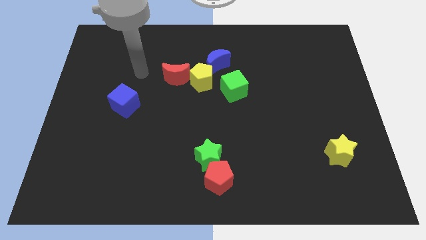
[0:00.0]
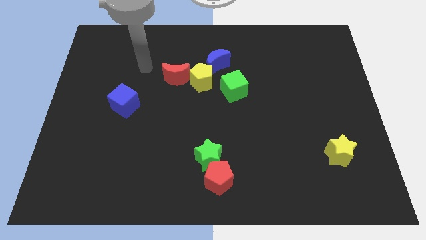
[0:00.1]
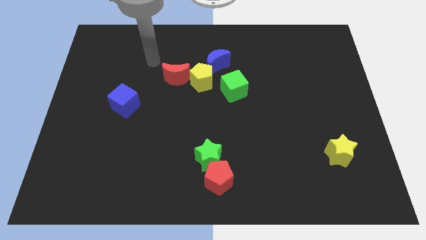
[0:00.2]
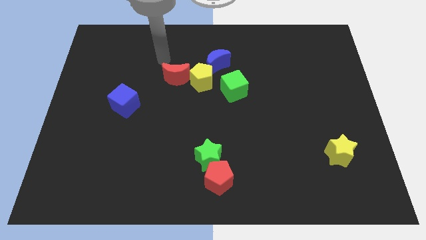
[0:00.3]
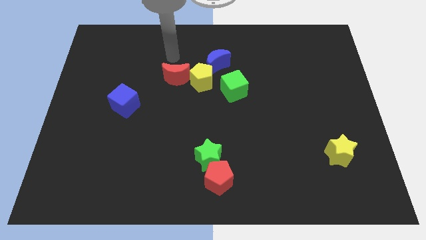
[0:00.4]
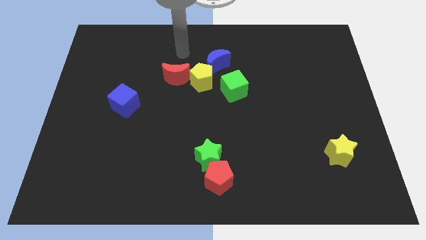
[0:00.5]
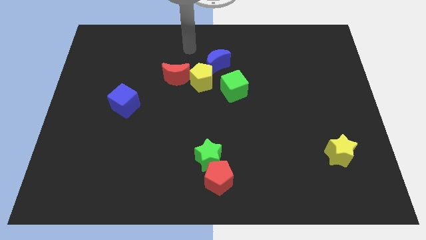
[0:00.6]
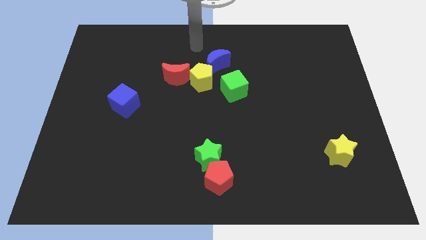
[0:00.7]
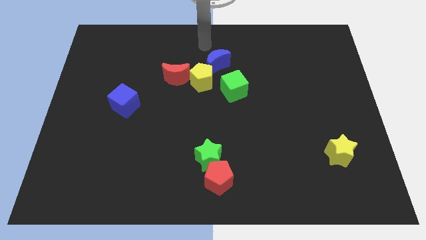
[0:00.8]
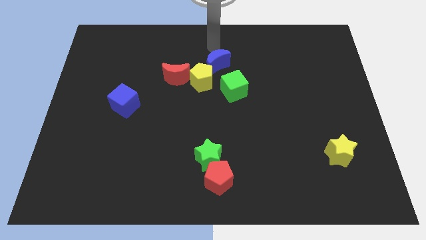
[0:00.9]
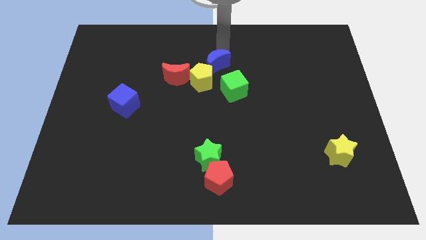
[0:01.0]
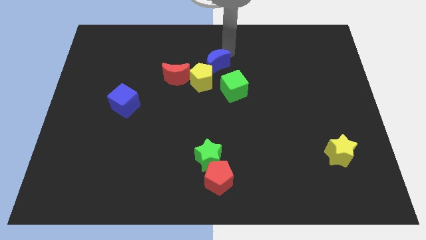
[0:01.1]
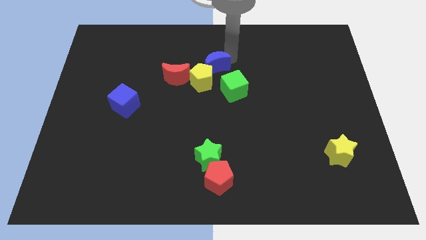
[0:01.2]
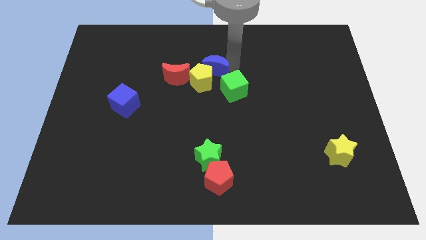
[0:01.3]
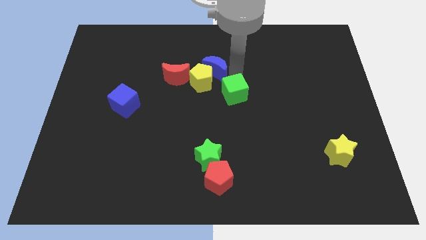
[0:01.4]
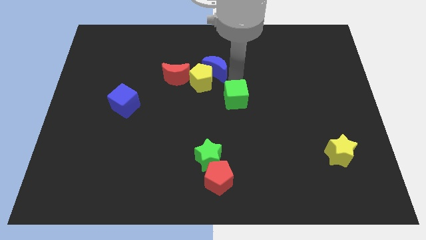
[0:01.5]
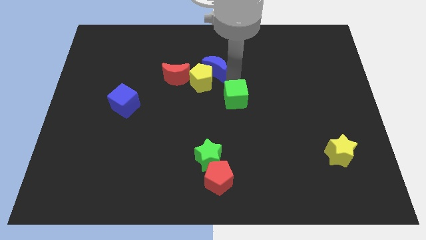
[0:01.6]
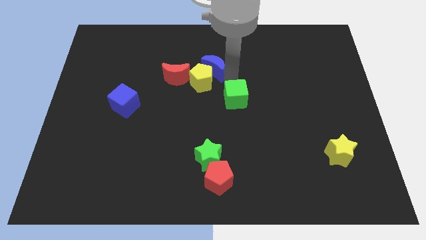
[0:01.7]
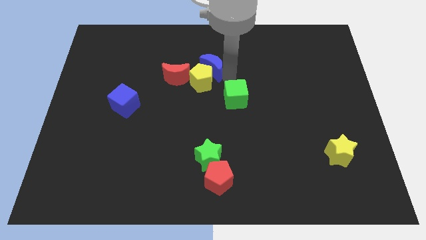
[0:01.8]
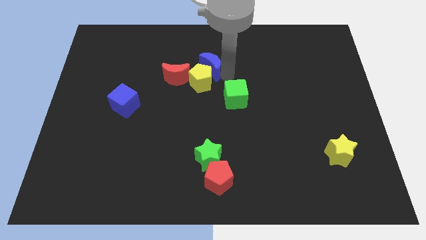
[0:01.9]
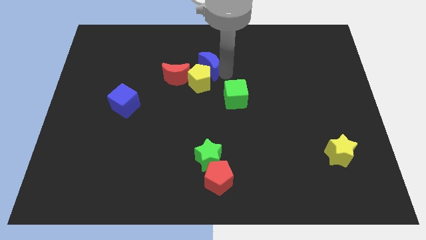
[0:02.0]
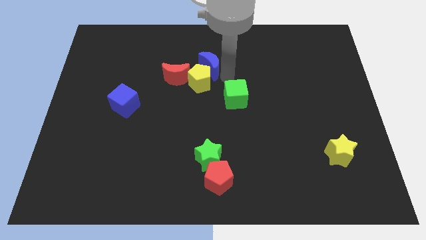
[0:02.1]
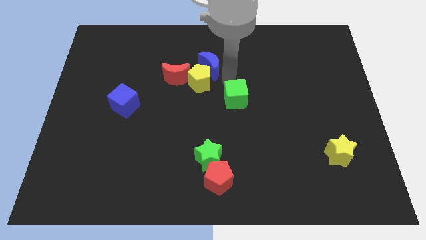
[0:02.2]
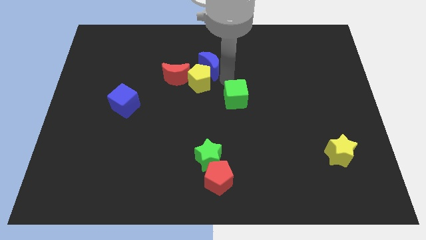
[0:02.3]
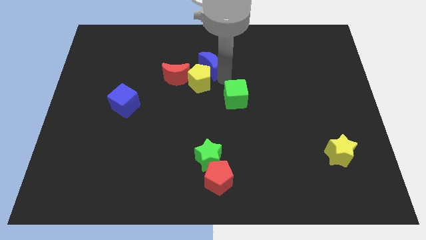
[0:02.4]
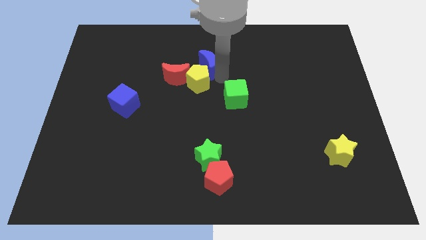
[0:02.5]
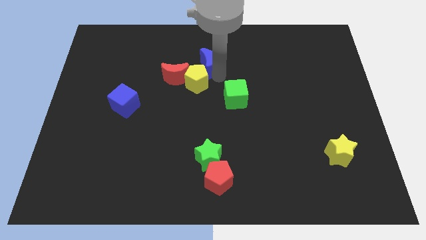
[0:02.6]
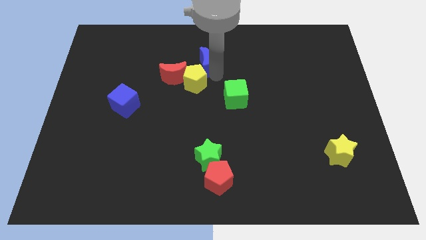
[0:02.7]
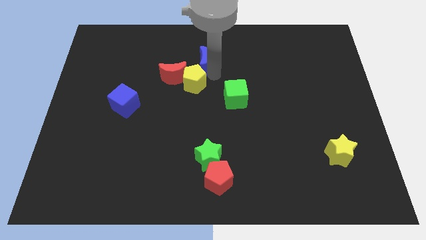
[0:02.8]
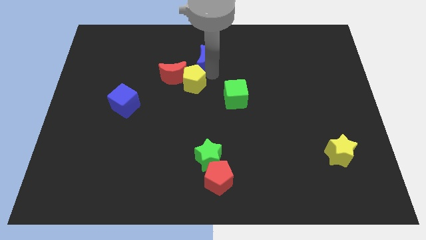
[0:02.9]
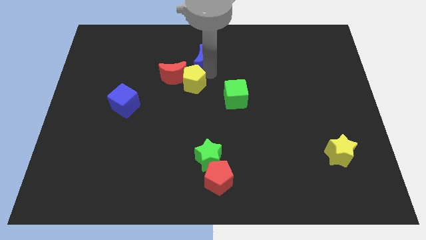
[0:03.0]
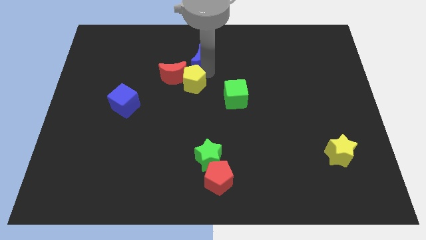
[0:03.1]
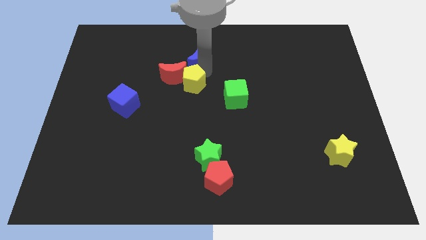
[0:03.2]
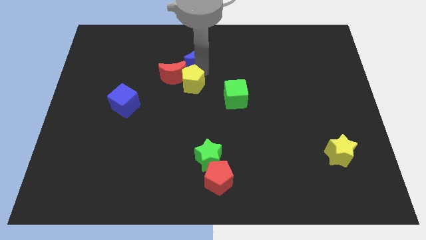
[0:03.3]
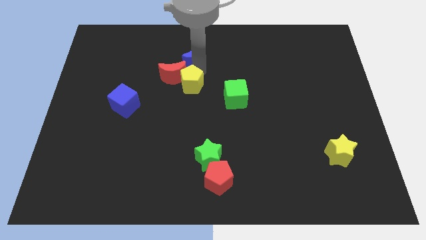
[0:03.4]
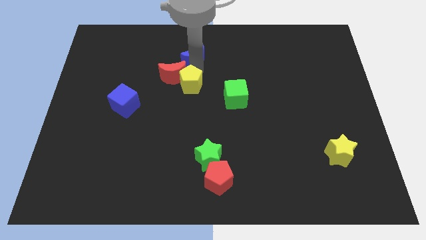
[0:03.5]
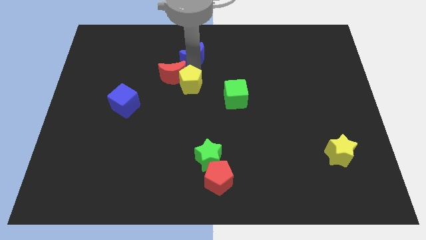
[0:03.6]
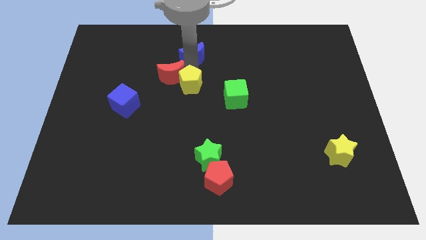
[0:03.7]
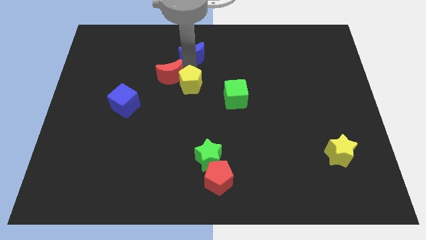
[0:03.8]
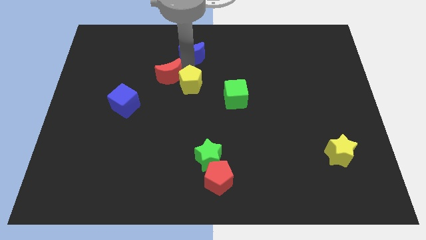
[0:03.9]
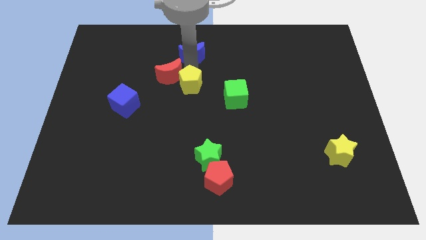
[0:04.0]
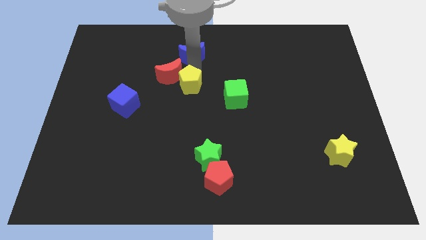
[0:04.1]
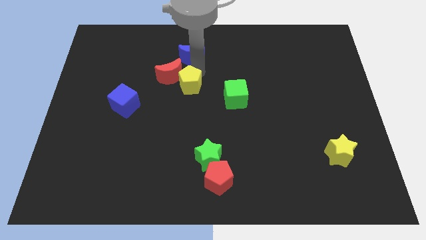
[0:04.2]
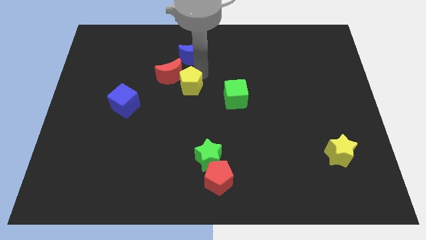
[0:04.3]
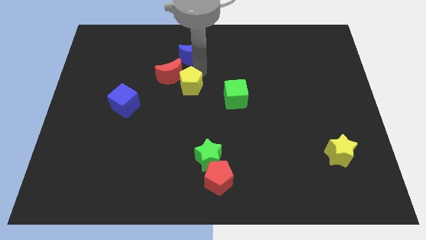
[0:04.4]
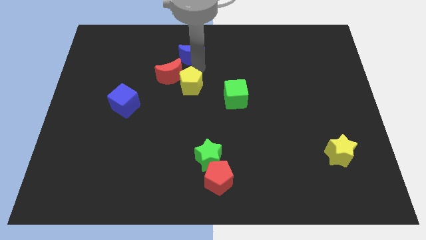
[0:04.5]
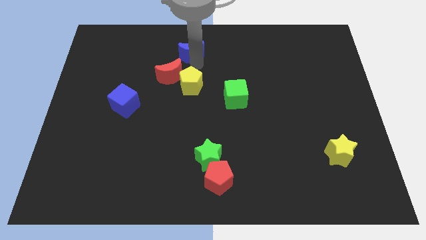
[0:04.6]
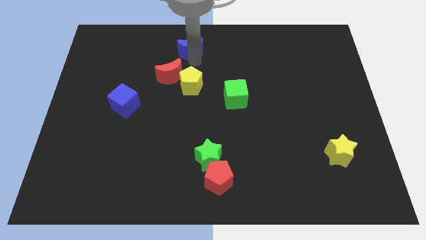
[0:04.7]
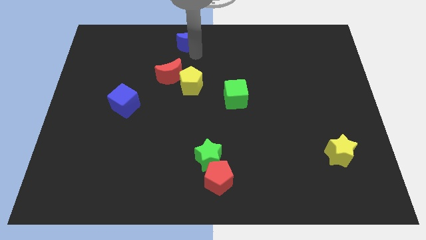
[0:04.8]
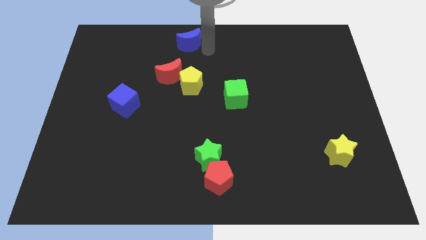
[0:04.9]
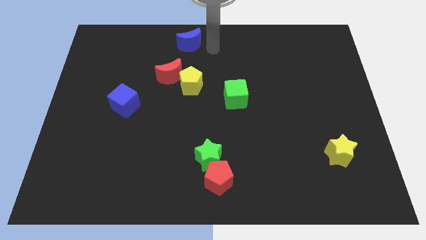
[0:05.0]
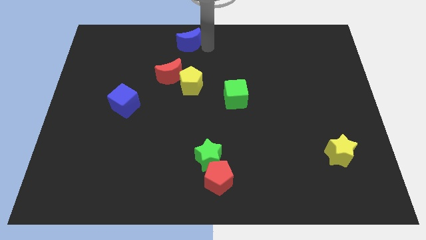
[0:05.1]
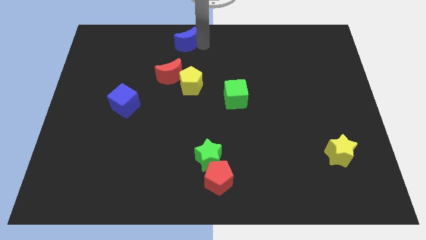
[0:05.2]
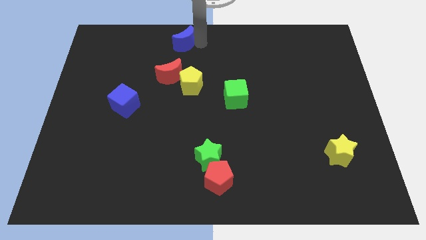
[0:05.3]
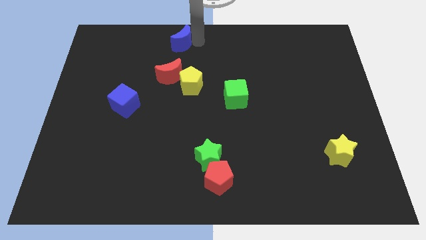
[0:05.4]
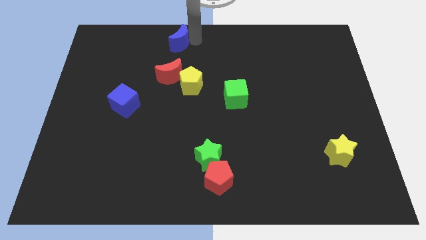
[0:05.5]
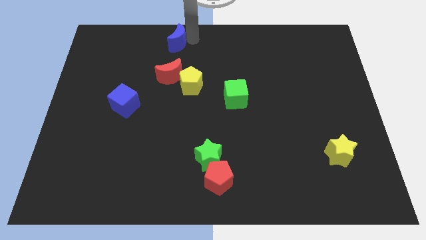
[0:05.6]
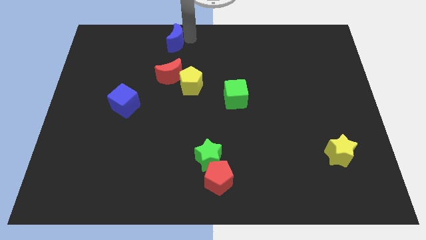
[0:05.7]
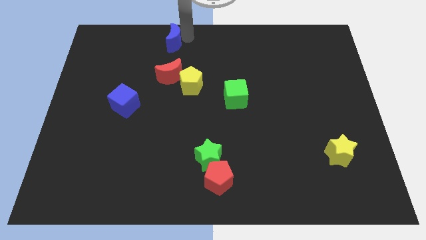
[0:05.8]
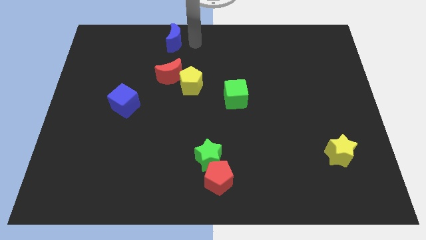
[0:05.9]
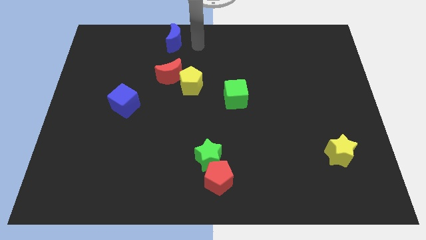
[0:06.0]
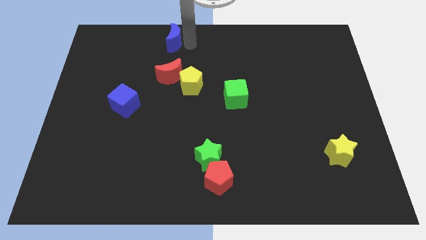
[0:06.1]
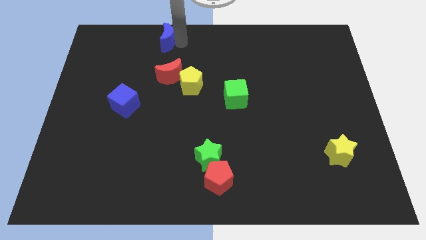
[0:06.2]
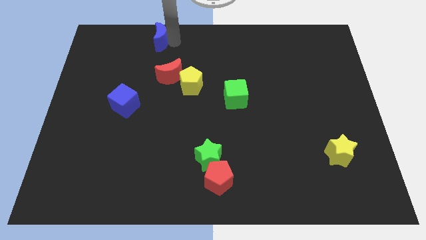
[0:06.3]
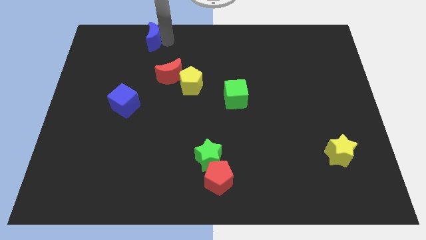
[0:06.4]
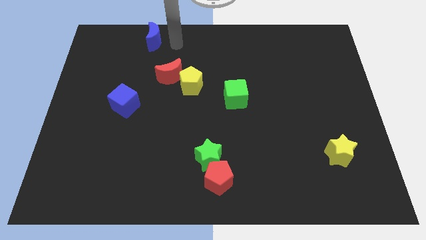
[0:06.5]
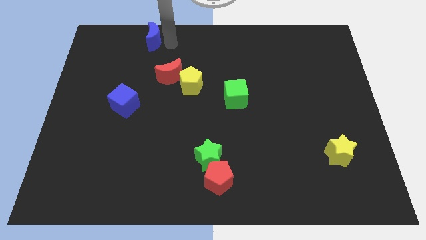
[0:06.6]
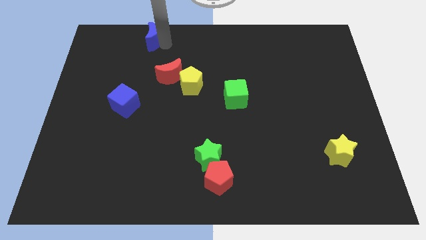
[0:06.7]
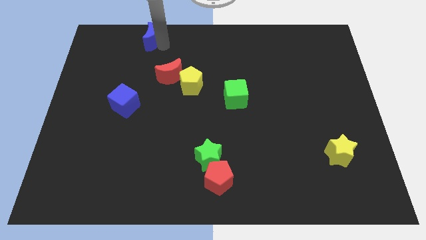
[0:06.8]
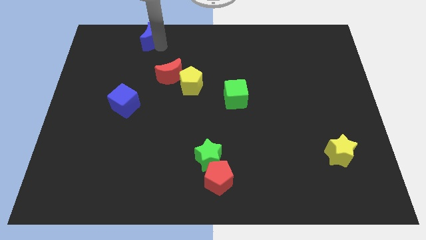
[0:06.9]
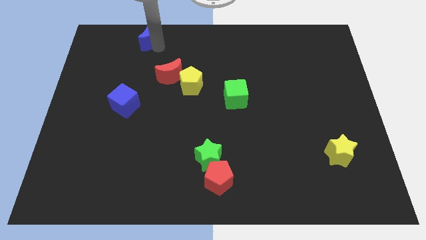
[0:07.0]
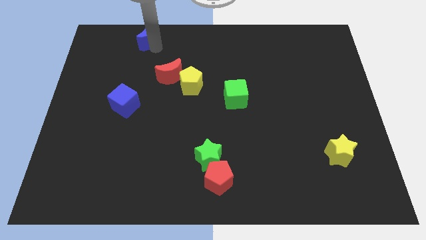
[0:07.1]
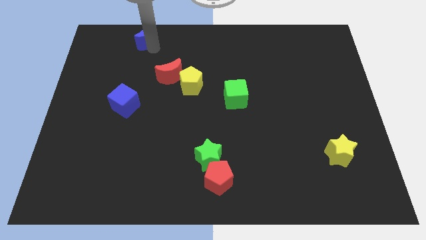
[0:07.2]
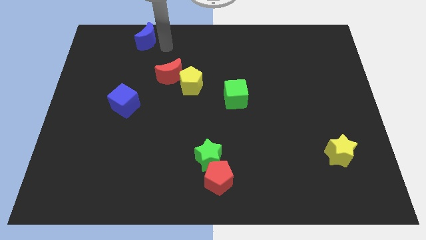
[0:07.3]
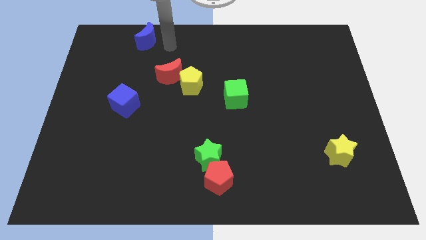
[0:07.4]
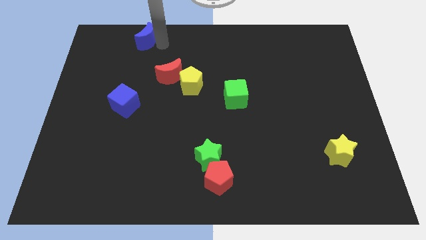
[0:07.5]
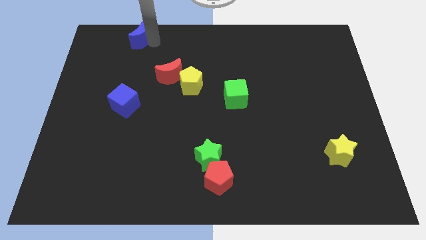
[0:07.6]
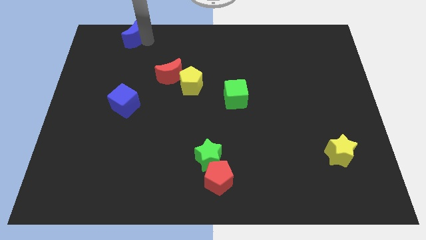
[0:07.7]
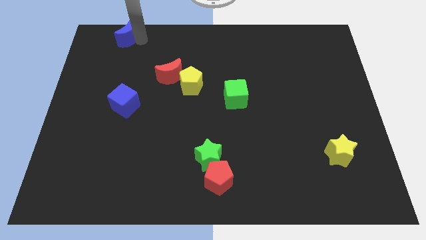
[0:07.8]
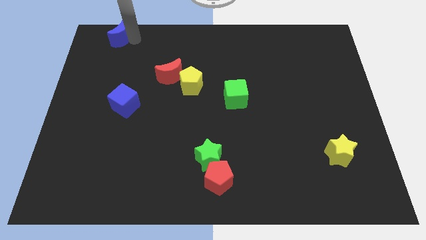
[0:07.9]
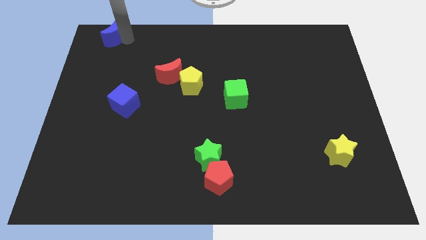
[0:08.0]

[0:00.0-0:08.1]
push the blue moon to the top left corner
